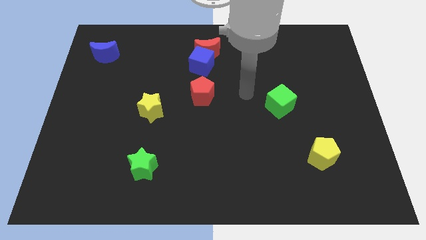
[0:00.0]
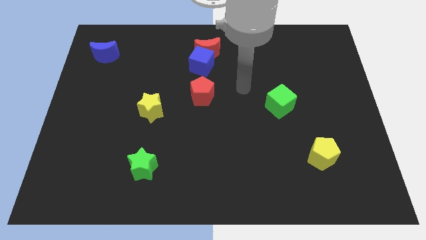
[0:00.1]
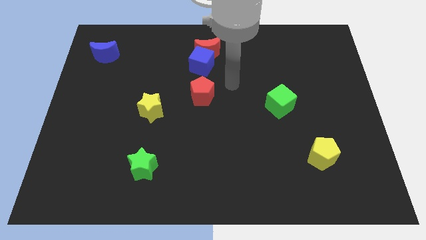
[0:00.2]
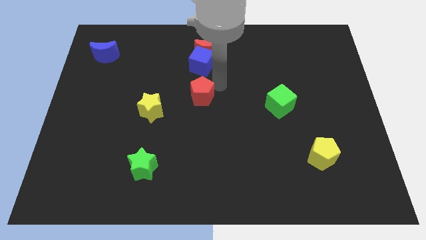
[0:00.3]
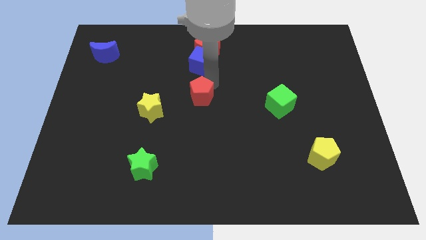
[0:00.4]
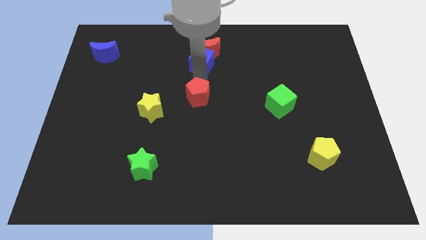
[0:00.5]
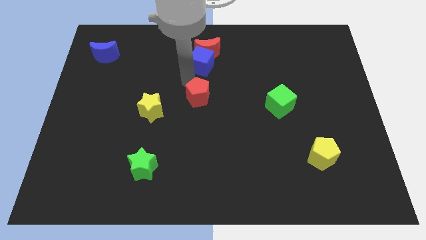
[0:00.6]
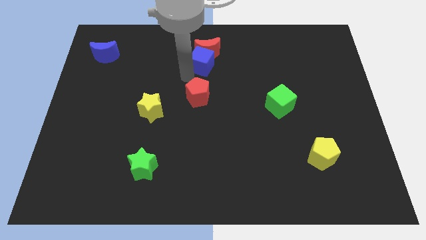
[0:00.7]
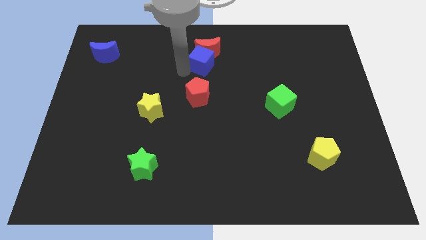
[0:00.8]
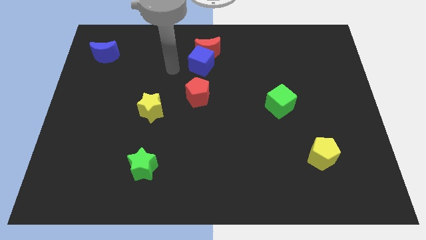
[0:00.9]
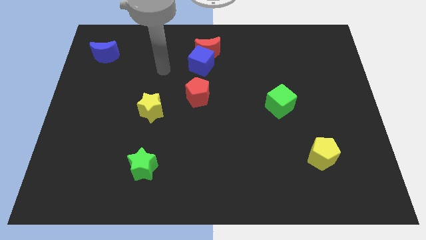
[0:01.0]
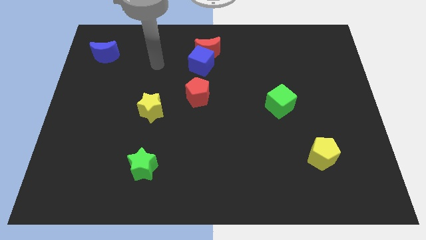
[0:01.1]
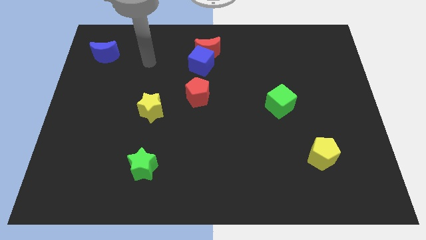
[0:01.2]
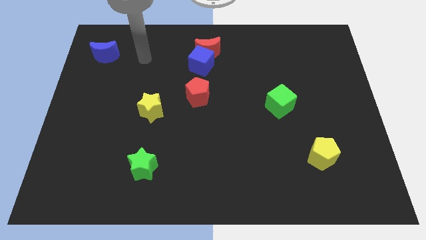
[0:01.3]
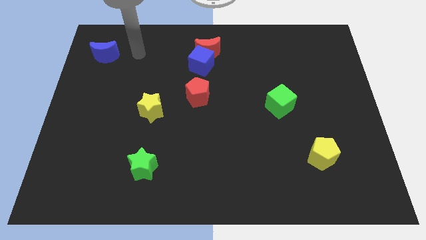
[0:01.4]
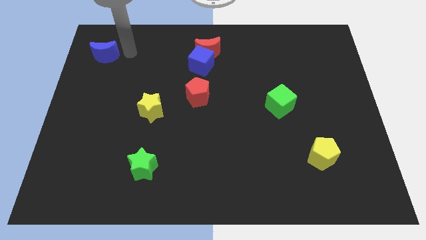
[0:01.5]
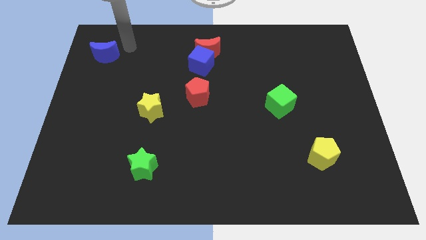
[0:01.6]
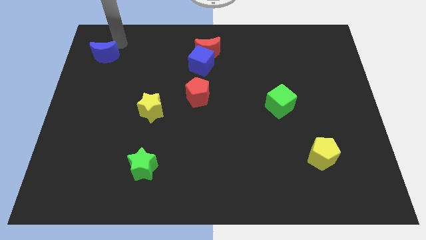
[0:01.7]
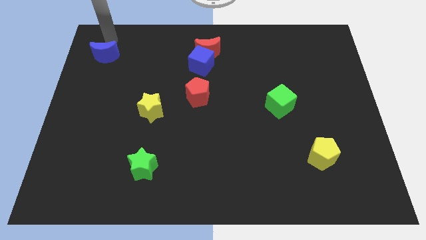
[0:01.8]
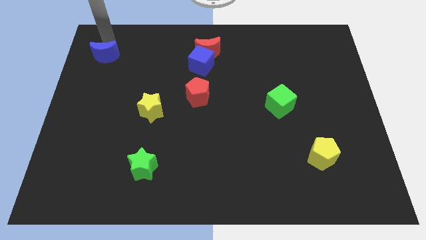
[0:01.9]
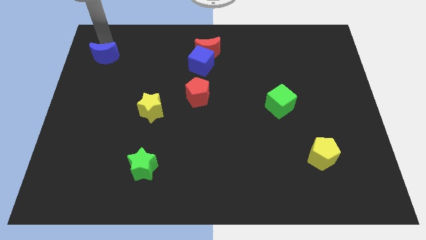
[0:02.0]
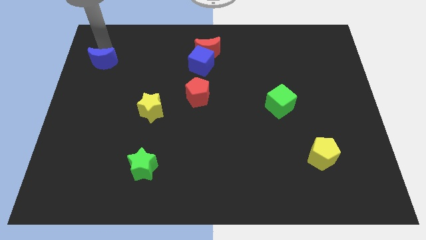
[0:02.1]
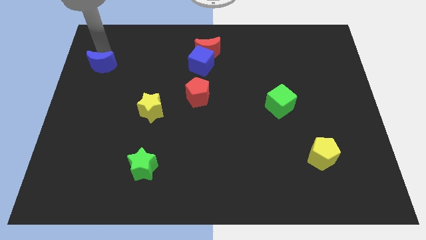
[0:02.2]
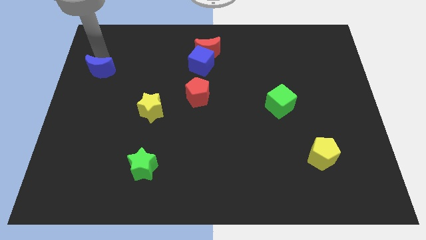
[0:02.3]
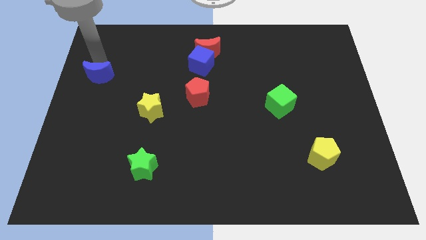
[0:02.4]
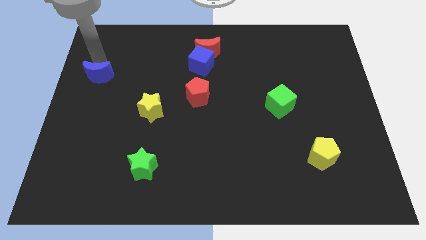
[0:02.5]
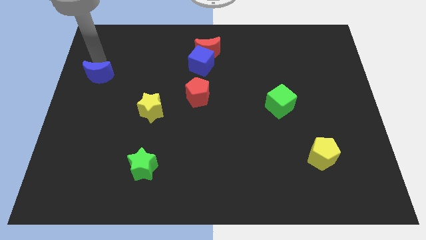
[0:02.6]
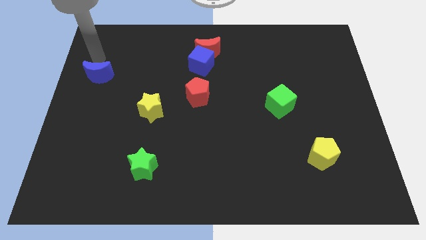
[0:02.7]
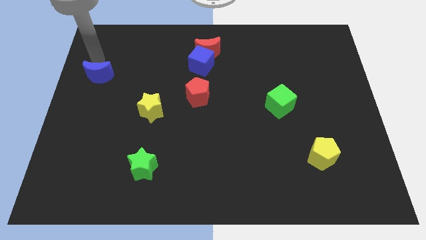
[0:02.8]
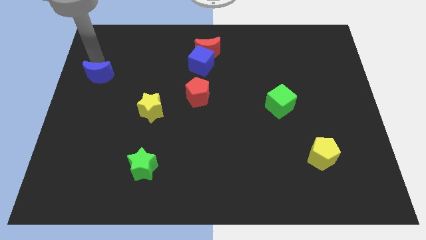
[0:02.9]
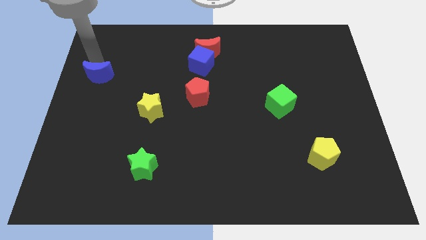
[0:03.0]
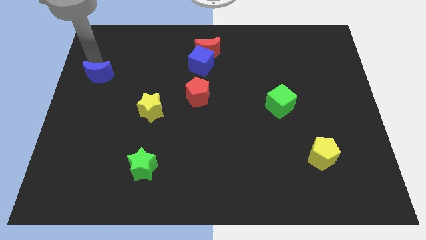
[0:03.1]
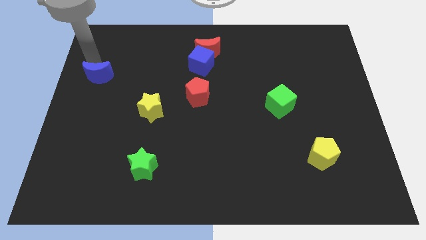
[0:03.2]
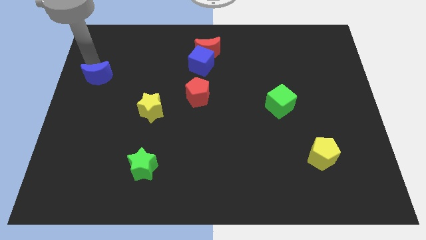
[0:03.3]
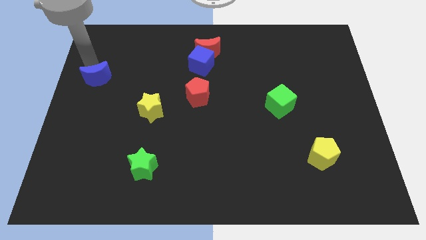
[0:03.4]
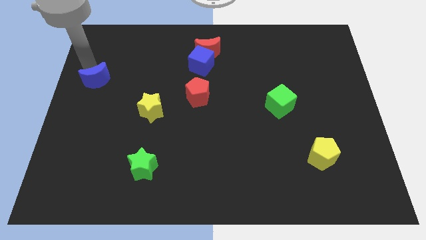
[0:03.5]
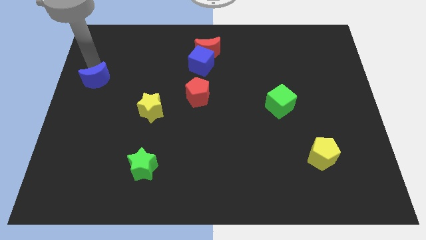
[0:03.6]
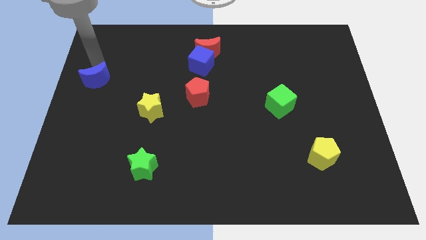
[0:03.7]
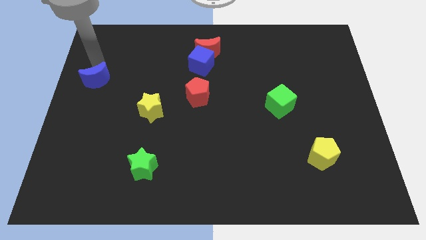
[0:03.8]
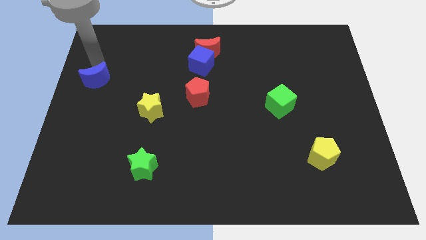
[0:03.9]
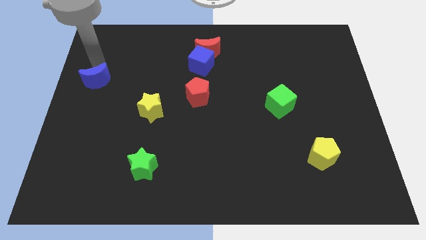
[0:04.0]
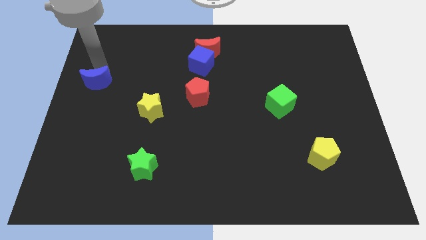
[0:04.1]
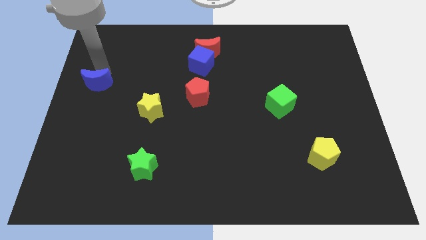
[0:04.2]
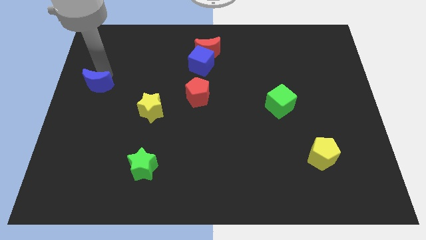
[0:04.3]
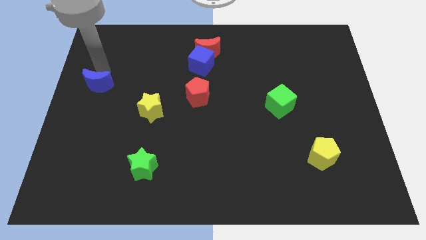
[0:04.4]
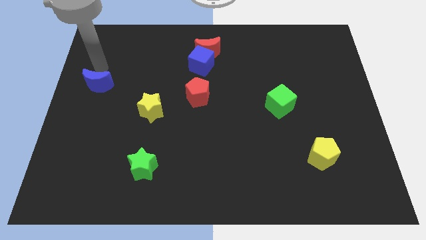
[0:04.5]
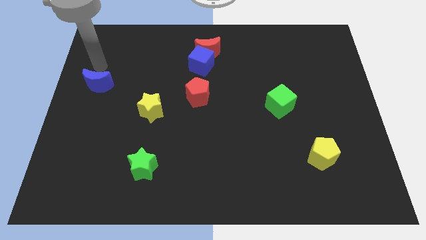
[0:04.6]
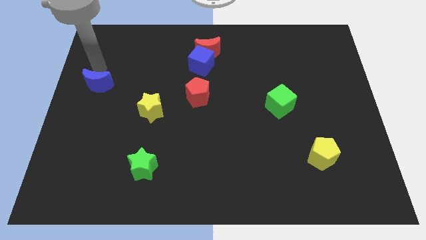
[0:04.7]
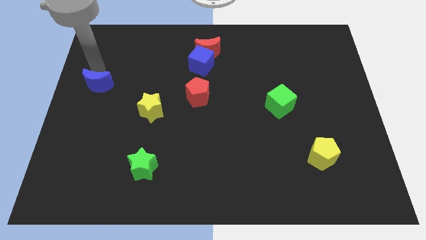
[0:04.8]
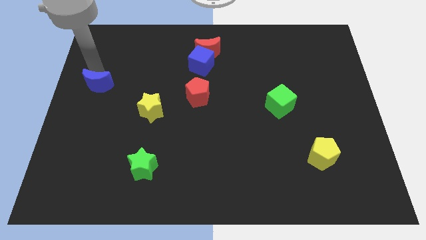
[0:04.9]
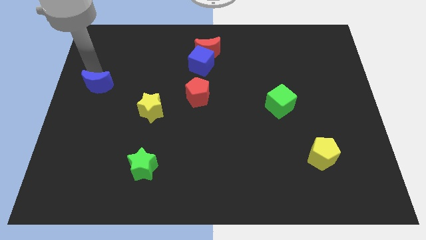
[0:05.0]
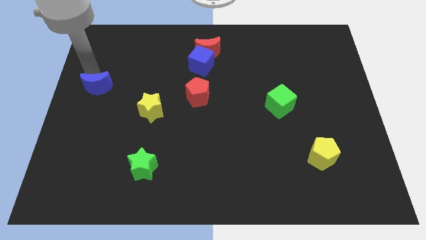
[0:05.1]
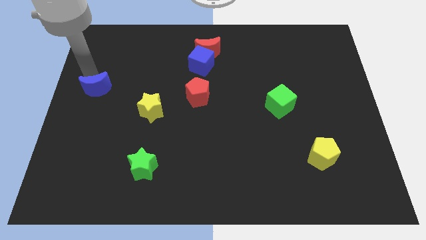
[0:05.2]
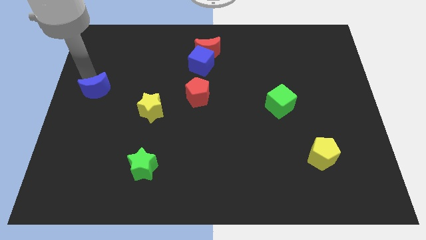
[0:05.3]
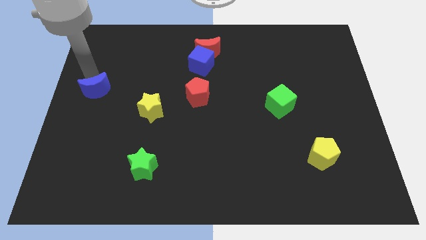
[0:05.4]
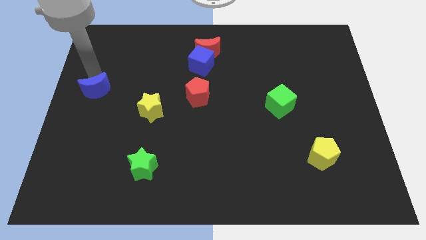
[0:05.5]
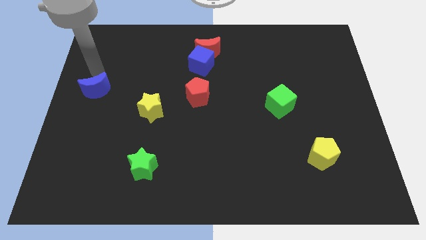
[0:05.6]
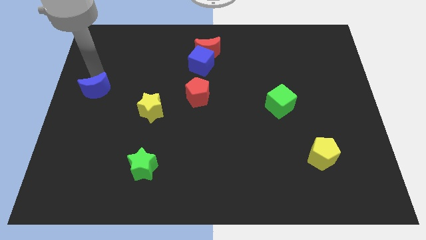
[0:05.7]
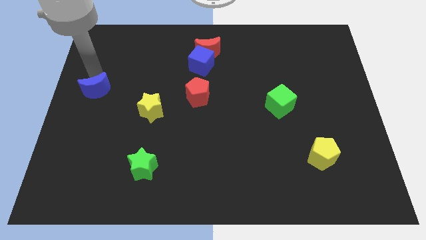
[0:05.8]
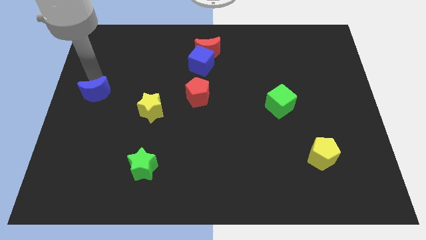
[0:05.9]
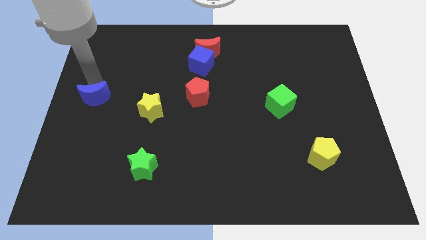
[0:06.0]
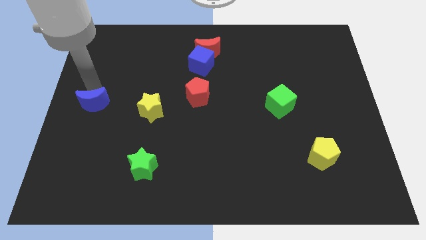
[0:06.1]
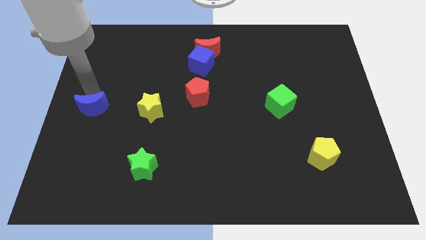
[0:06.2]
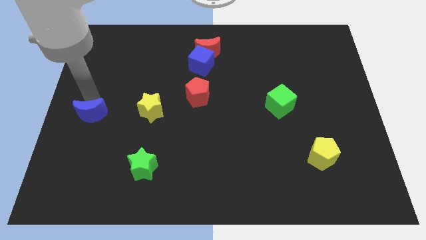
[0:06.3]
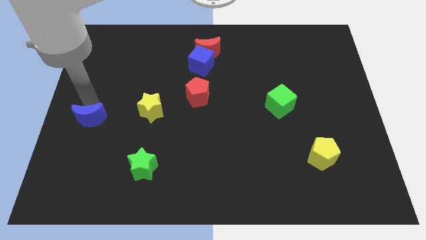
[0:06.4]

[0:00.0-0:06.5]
slide the blue moon downwards

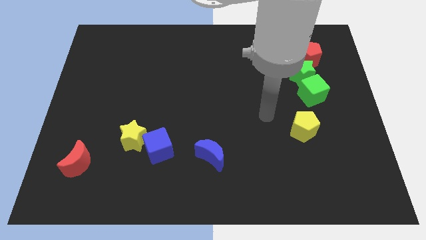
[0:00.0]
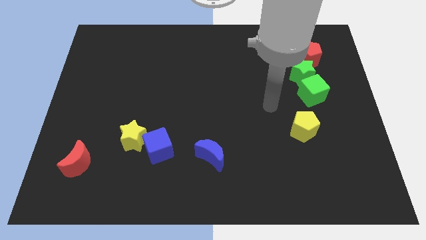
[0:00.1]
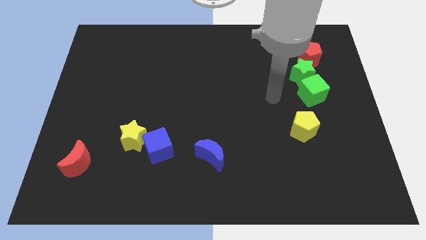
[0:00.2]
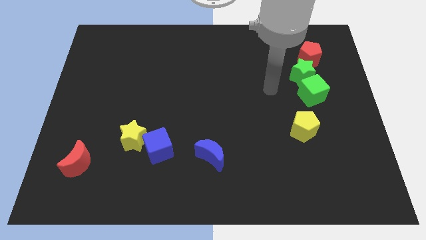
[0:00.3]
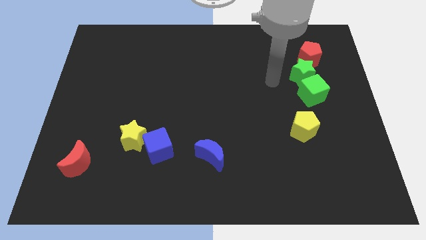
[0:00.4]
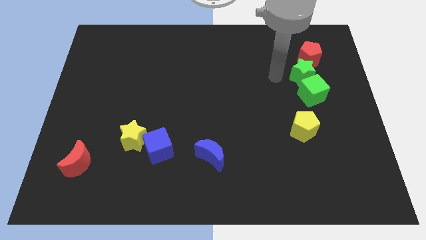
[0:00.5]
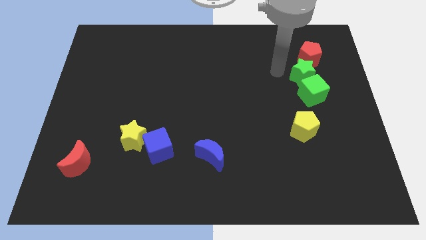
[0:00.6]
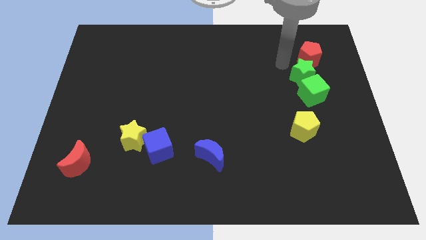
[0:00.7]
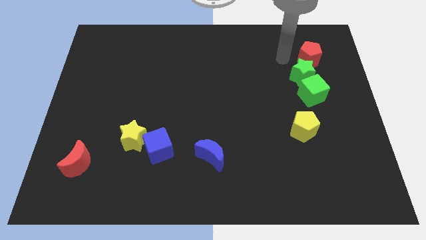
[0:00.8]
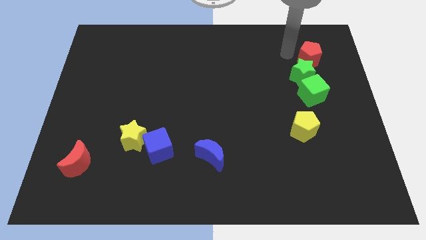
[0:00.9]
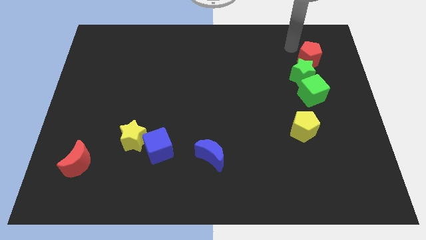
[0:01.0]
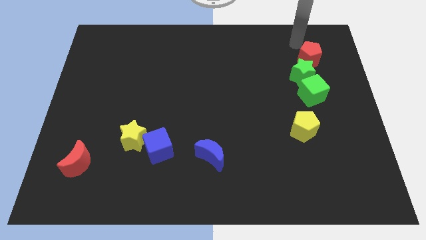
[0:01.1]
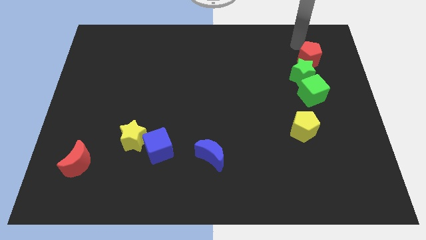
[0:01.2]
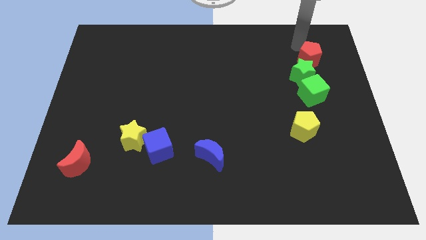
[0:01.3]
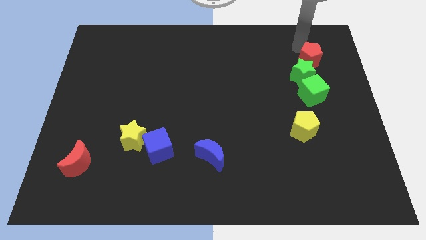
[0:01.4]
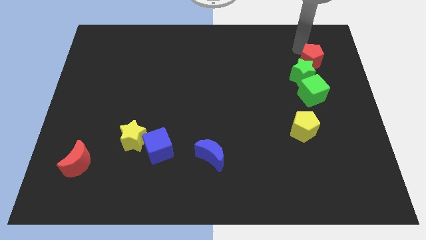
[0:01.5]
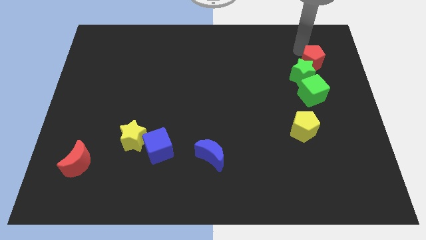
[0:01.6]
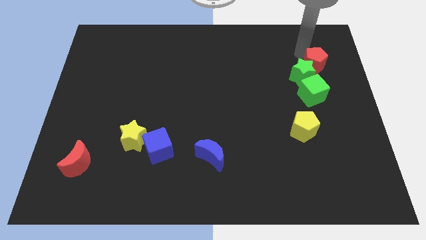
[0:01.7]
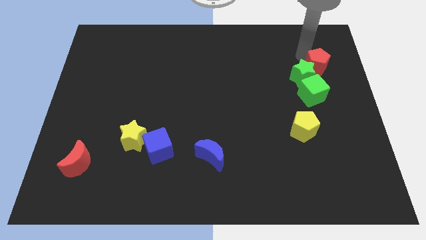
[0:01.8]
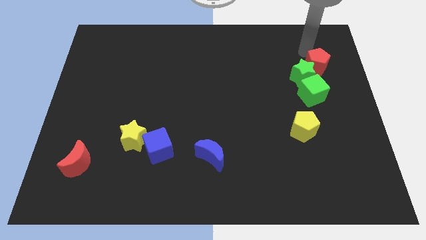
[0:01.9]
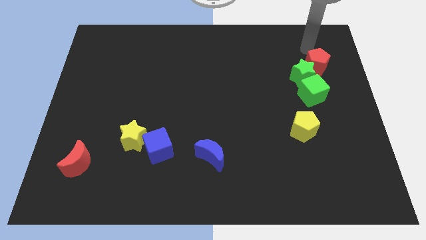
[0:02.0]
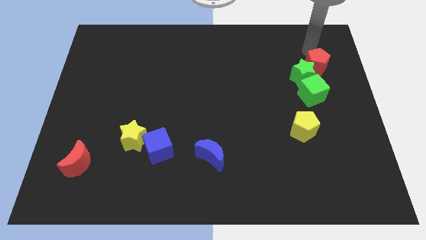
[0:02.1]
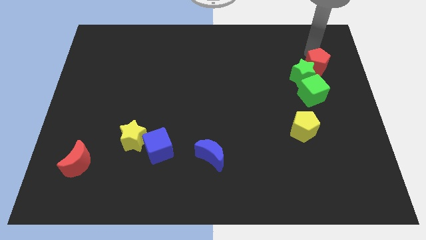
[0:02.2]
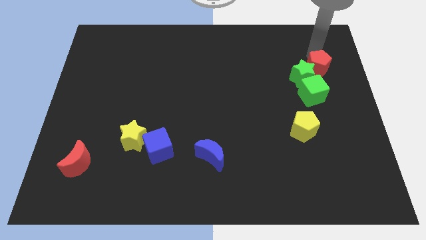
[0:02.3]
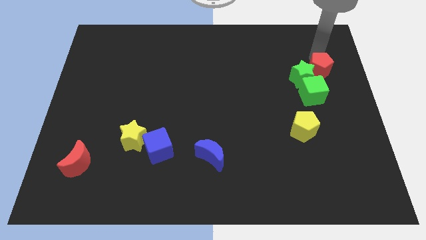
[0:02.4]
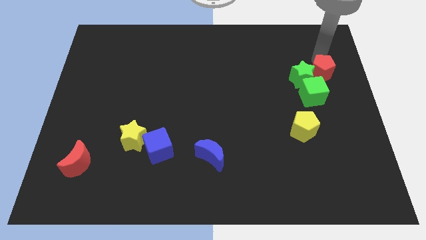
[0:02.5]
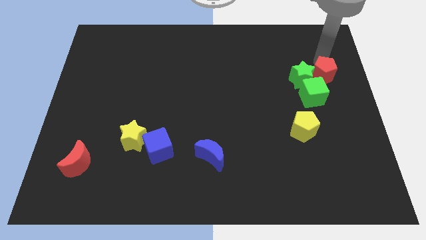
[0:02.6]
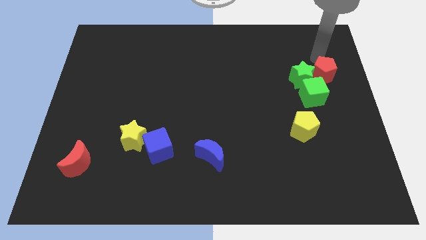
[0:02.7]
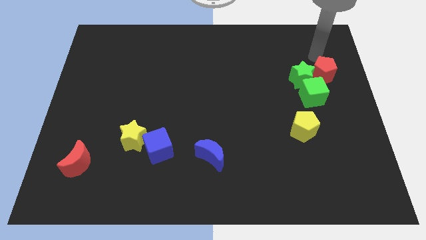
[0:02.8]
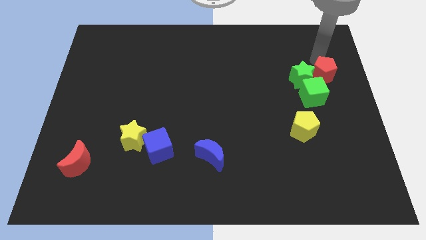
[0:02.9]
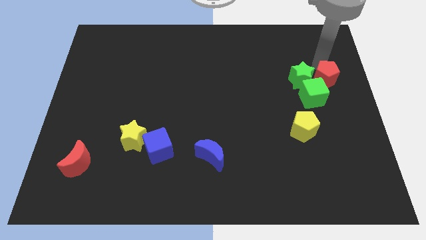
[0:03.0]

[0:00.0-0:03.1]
move the red pentagon a bit downwards
